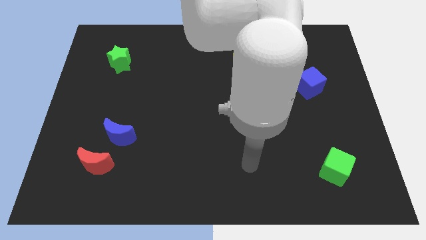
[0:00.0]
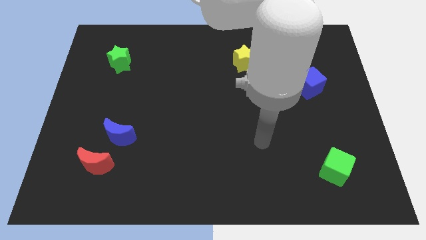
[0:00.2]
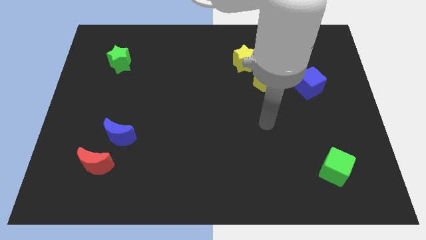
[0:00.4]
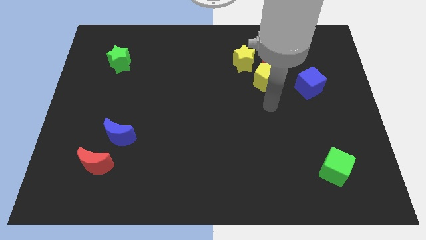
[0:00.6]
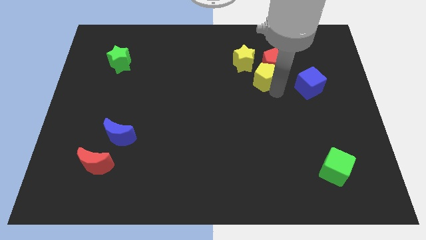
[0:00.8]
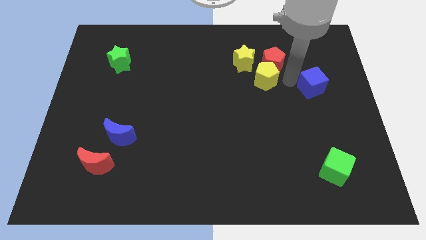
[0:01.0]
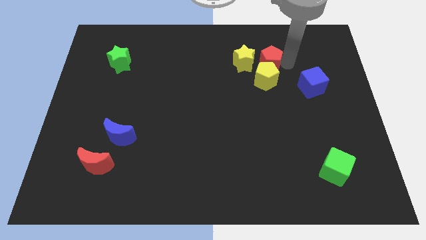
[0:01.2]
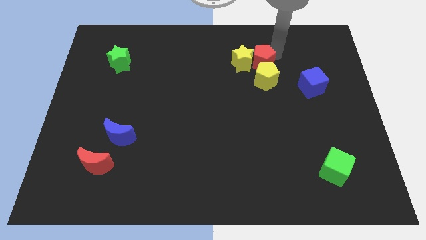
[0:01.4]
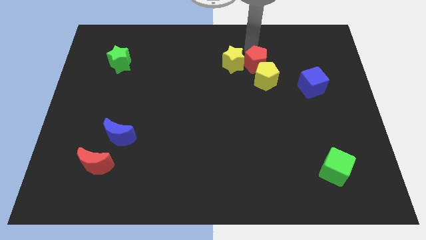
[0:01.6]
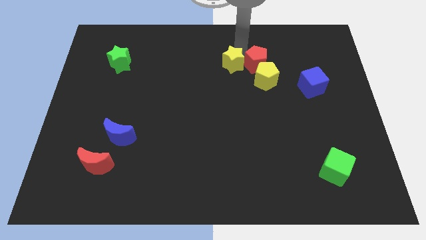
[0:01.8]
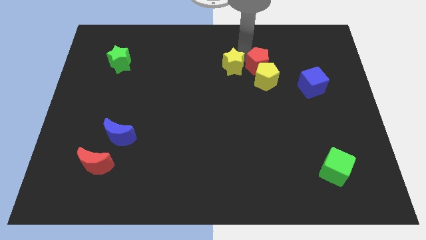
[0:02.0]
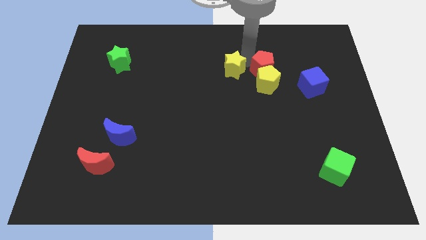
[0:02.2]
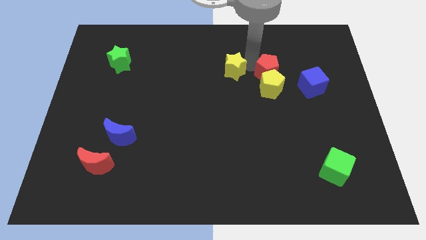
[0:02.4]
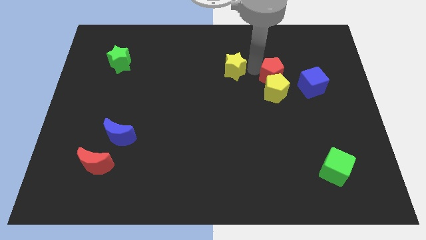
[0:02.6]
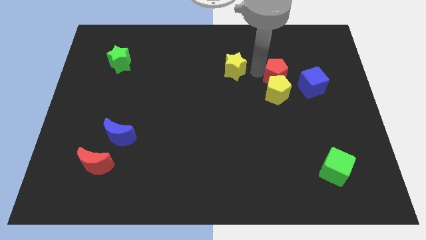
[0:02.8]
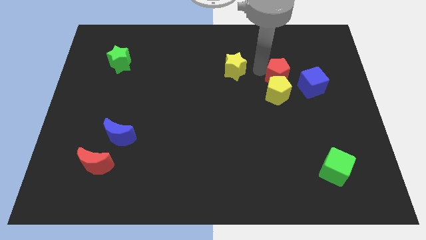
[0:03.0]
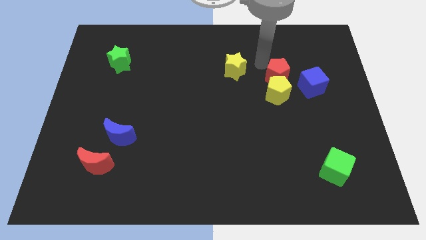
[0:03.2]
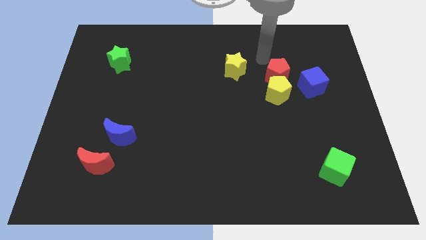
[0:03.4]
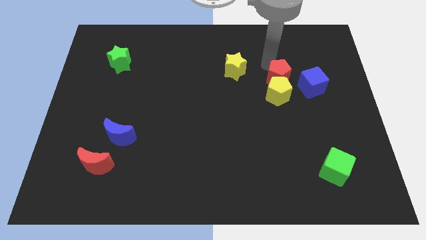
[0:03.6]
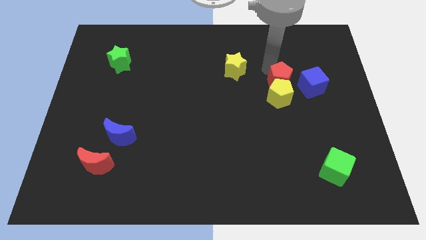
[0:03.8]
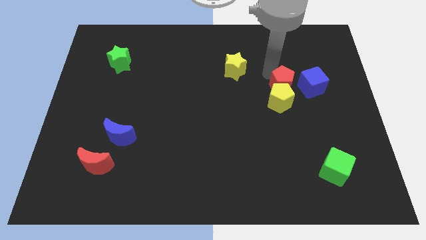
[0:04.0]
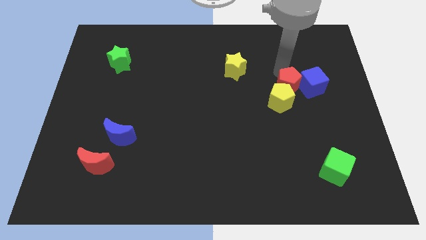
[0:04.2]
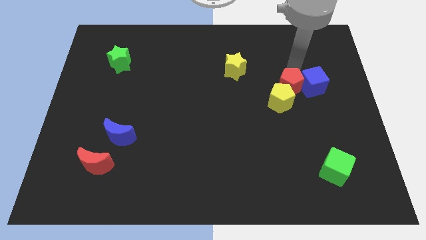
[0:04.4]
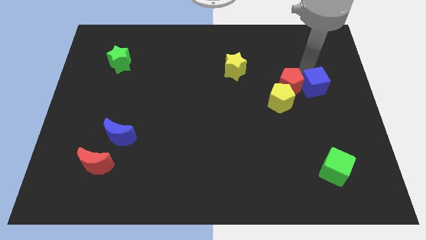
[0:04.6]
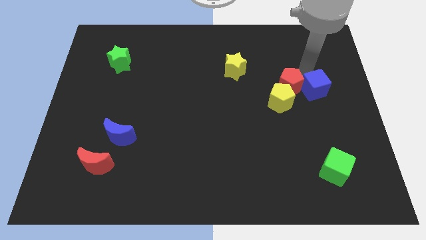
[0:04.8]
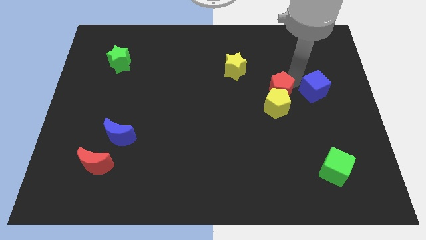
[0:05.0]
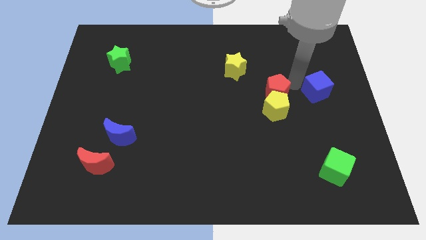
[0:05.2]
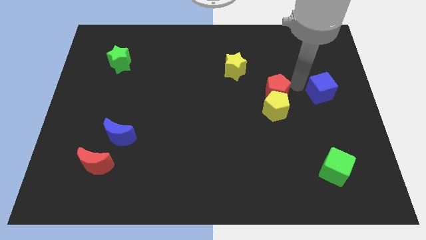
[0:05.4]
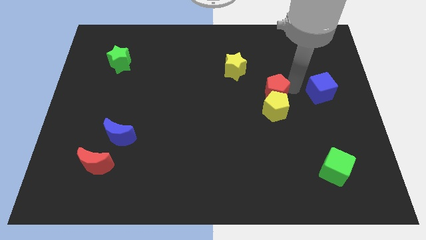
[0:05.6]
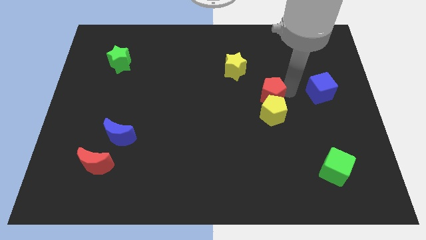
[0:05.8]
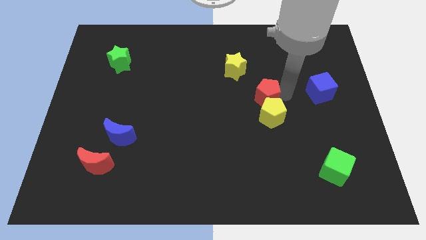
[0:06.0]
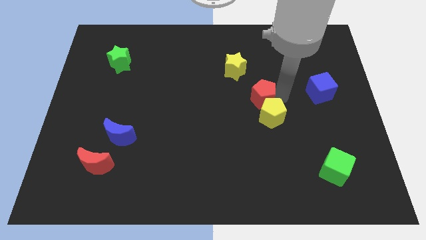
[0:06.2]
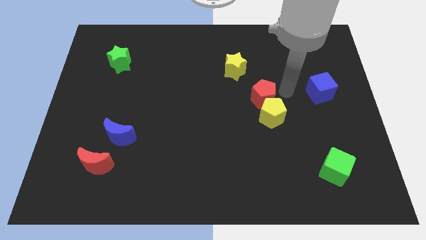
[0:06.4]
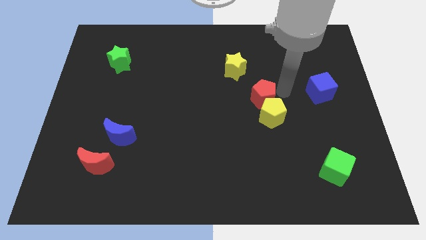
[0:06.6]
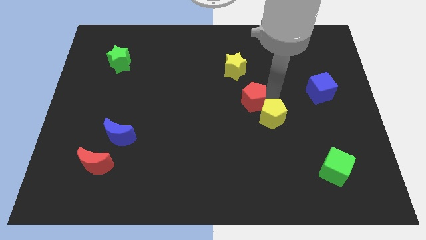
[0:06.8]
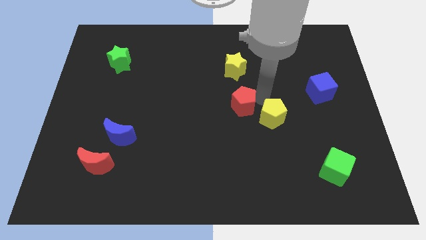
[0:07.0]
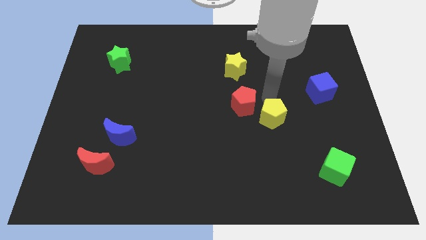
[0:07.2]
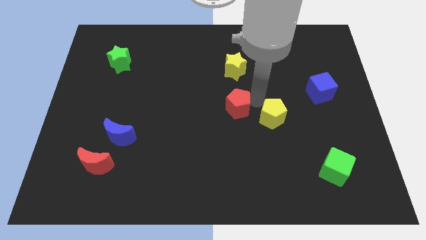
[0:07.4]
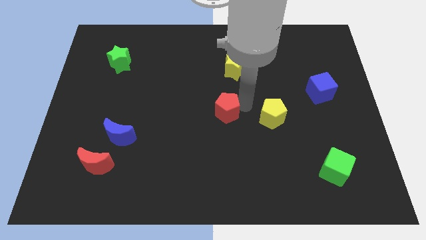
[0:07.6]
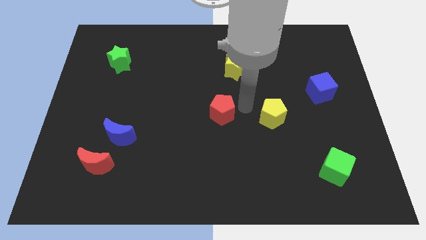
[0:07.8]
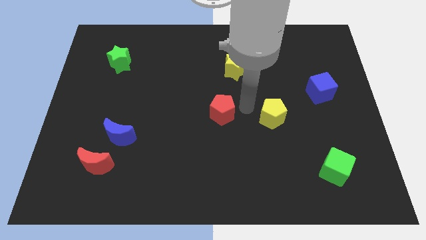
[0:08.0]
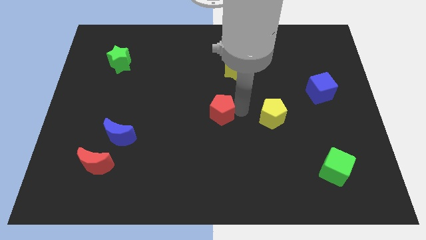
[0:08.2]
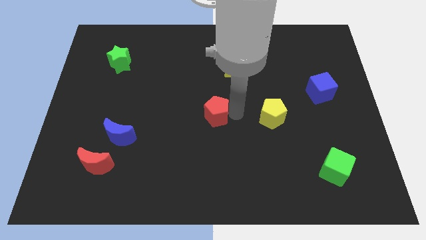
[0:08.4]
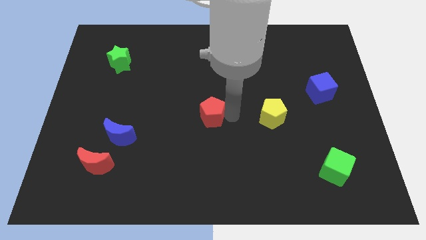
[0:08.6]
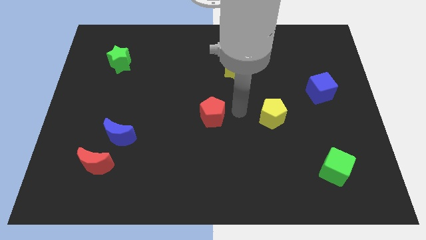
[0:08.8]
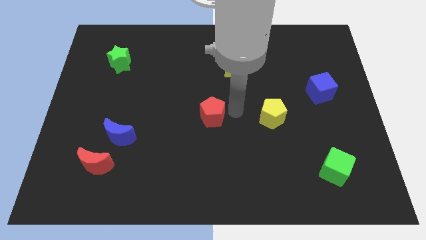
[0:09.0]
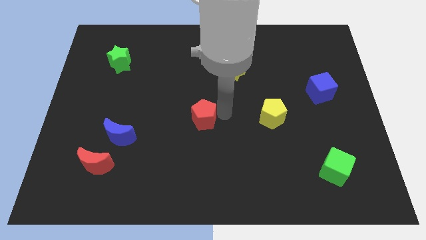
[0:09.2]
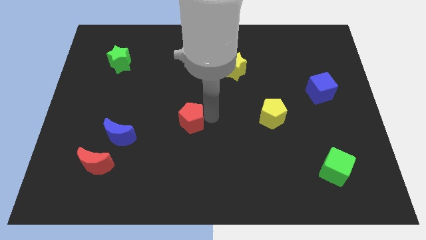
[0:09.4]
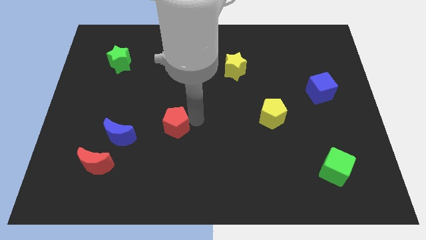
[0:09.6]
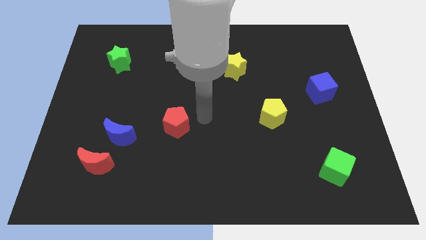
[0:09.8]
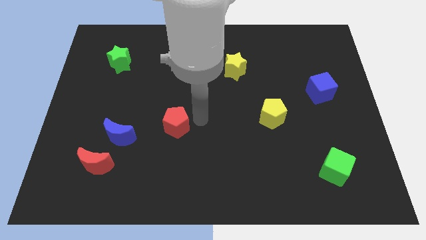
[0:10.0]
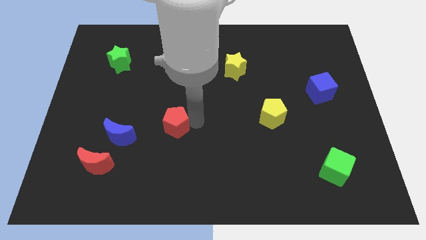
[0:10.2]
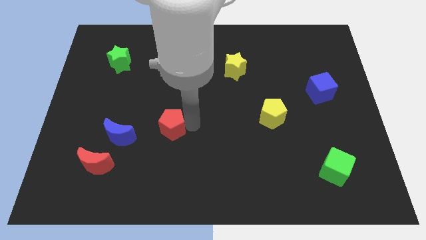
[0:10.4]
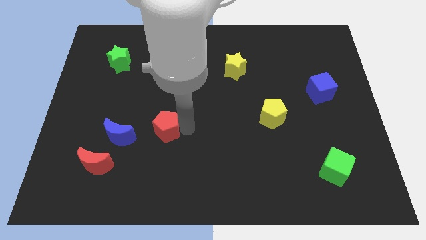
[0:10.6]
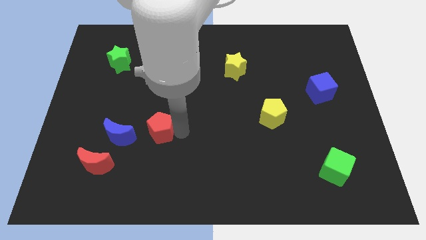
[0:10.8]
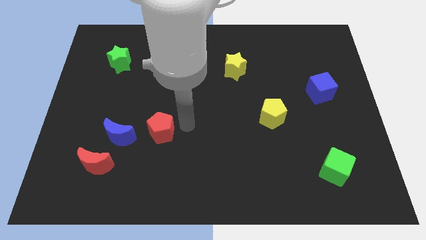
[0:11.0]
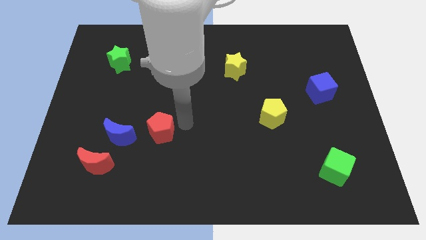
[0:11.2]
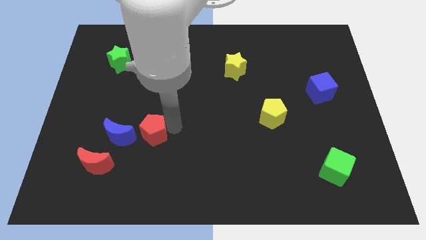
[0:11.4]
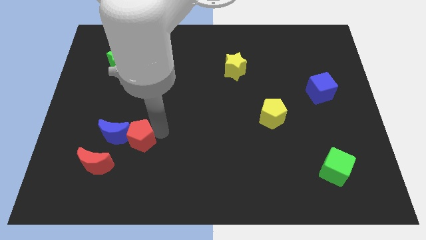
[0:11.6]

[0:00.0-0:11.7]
move the red pentagon towards the blue moon
